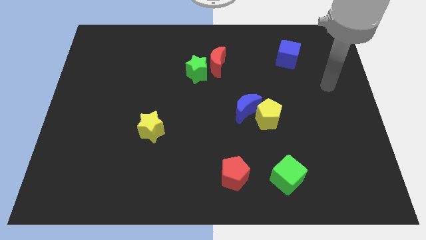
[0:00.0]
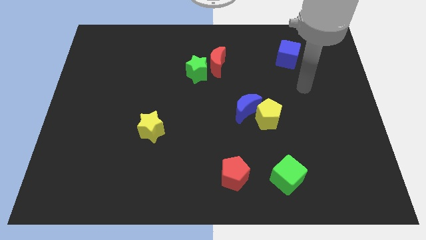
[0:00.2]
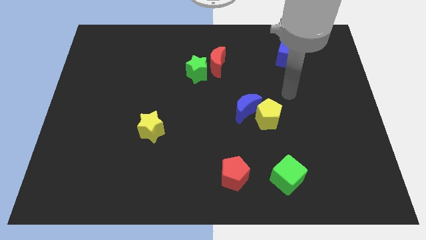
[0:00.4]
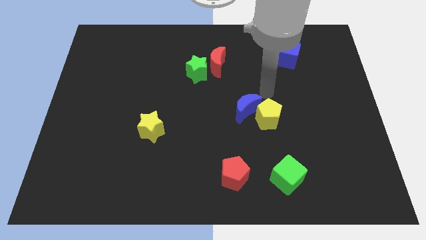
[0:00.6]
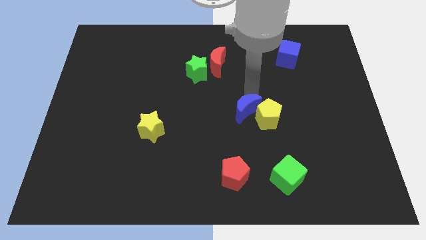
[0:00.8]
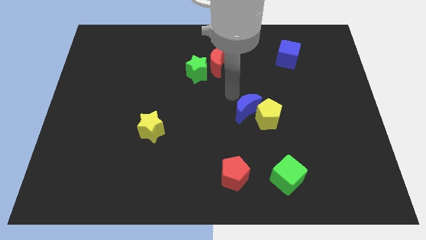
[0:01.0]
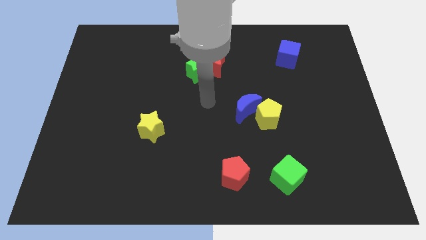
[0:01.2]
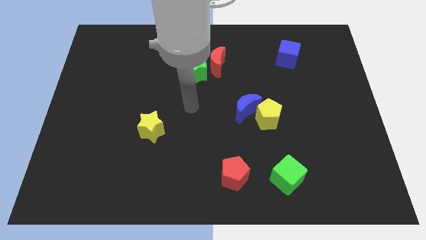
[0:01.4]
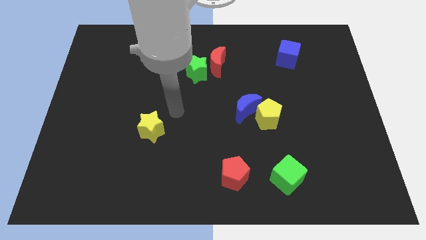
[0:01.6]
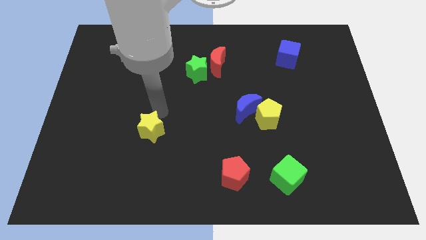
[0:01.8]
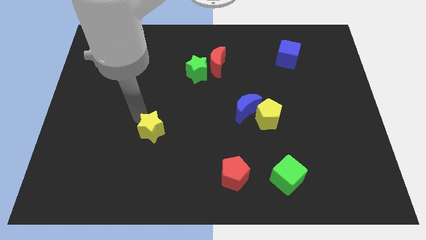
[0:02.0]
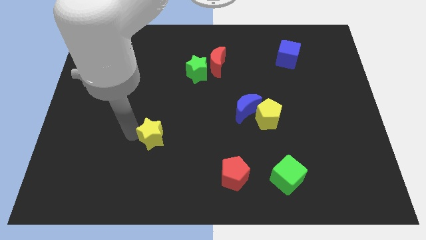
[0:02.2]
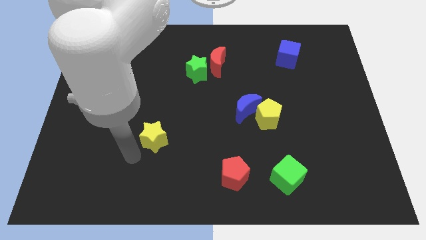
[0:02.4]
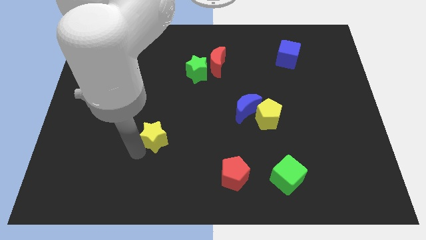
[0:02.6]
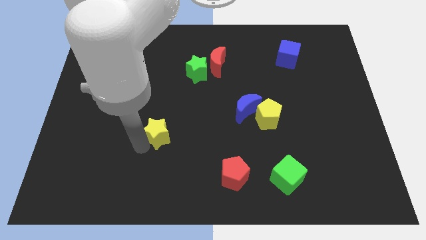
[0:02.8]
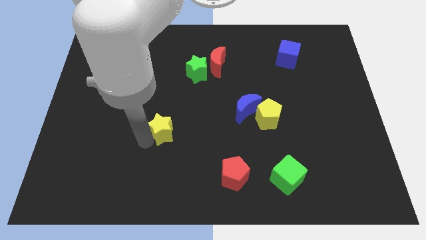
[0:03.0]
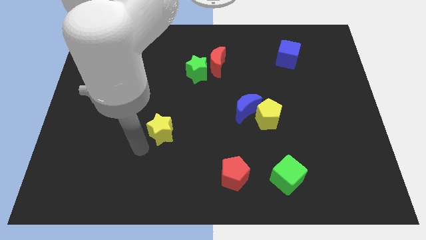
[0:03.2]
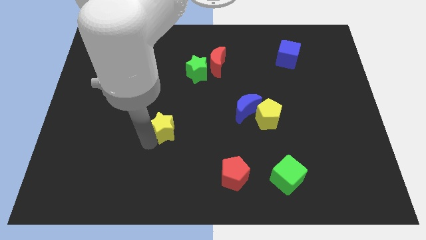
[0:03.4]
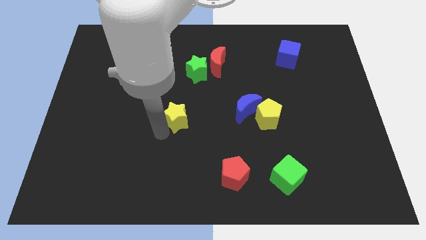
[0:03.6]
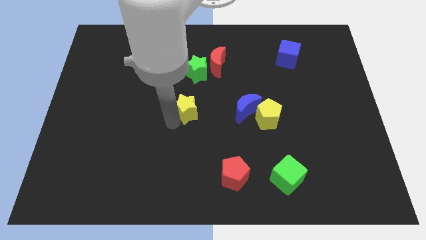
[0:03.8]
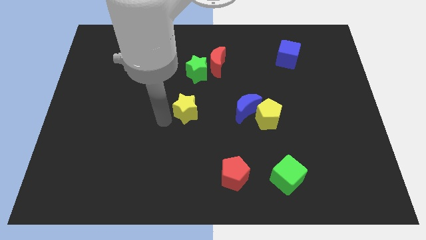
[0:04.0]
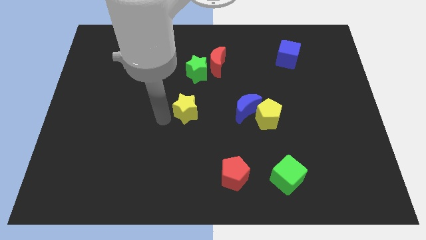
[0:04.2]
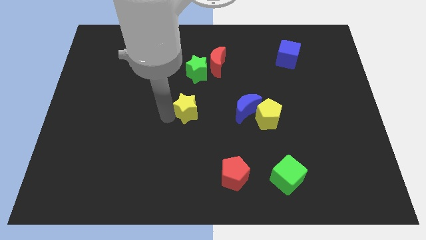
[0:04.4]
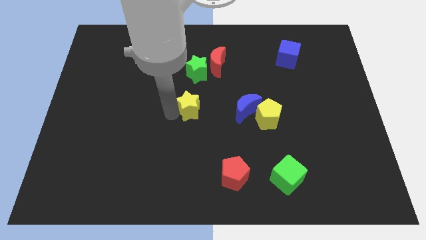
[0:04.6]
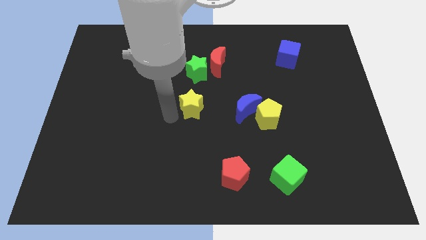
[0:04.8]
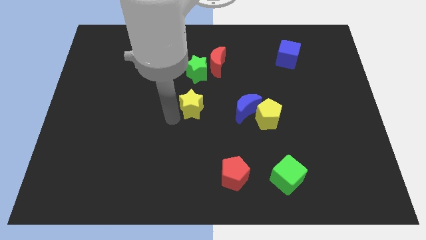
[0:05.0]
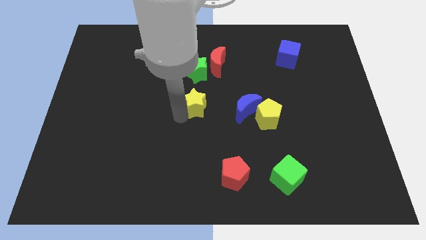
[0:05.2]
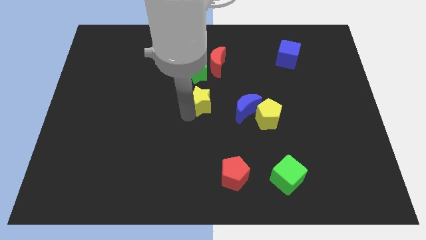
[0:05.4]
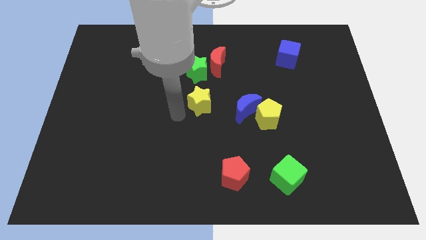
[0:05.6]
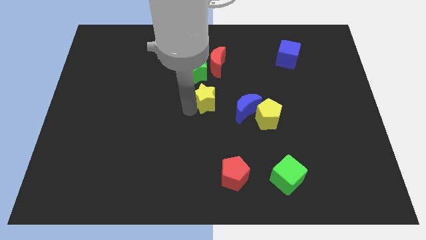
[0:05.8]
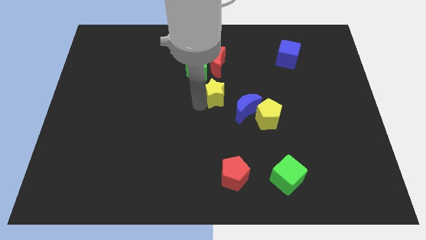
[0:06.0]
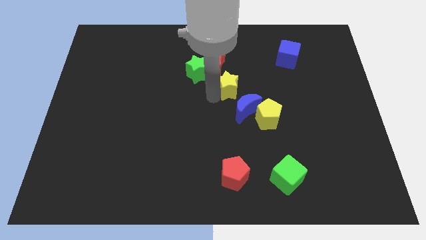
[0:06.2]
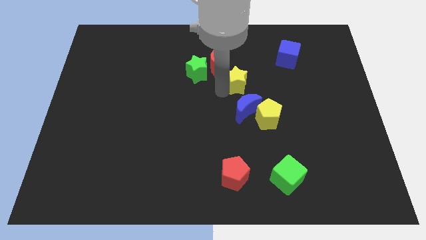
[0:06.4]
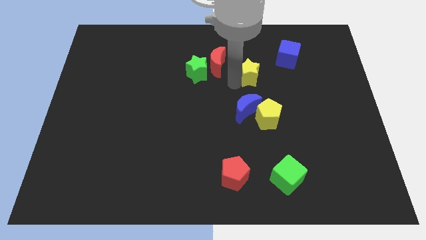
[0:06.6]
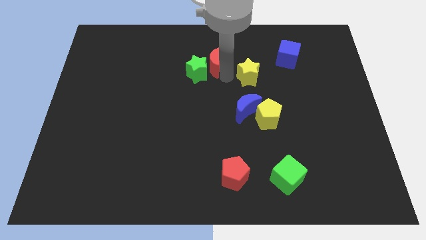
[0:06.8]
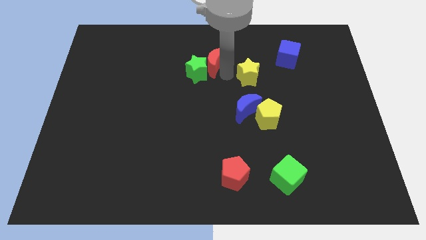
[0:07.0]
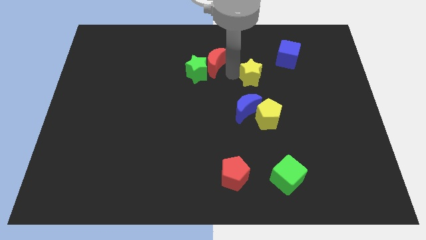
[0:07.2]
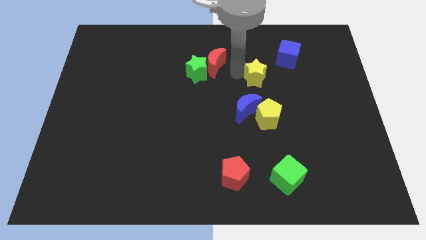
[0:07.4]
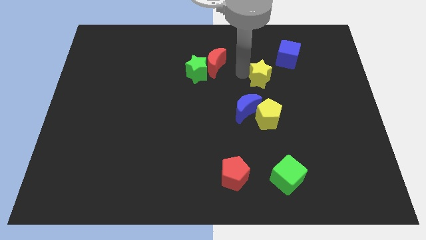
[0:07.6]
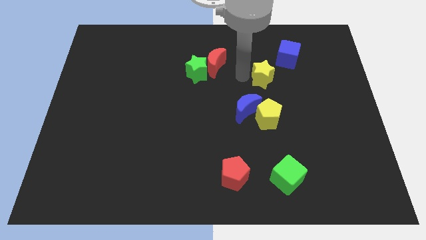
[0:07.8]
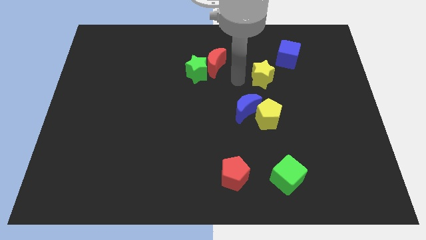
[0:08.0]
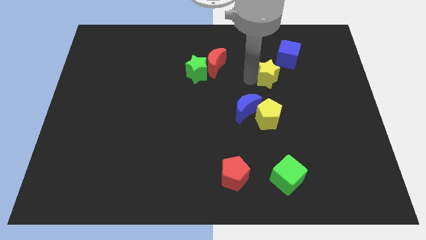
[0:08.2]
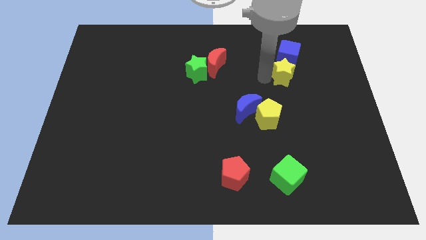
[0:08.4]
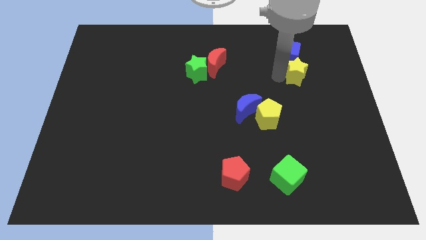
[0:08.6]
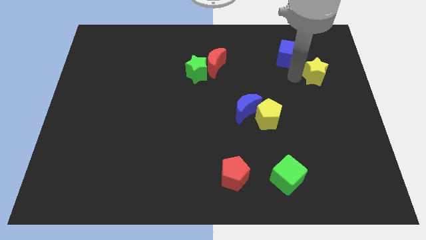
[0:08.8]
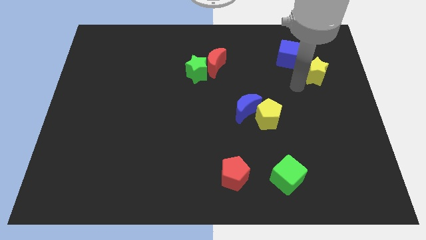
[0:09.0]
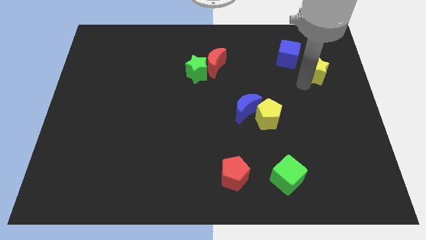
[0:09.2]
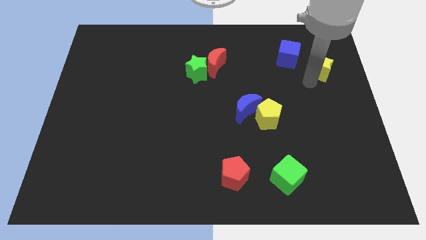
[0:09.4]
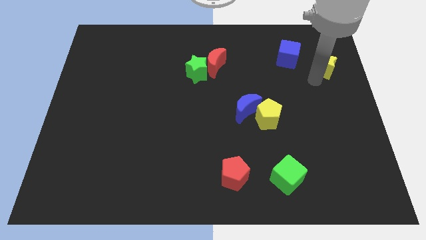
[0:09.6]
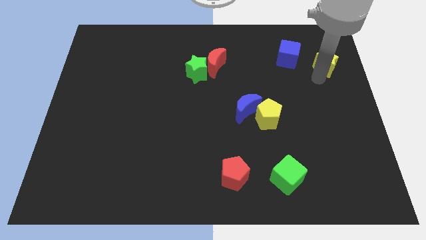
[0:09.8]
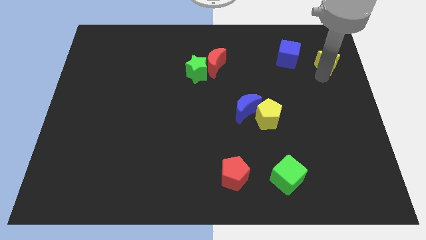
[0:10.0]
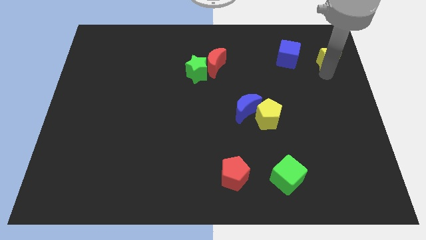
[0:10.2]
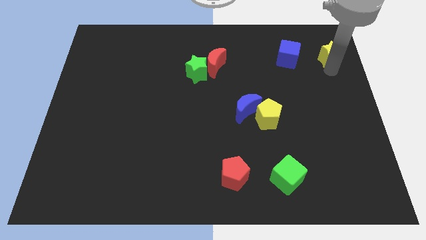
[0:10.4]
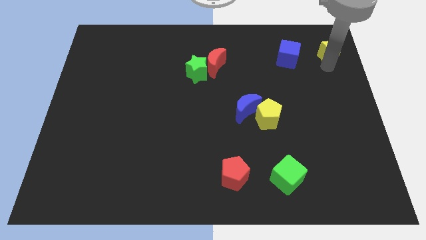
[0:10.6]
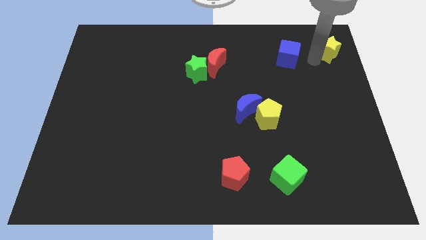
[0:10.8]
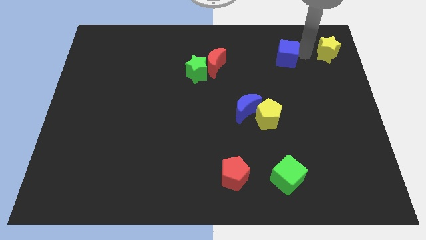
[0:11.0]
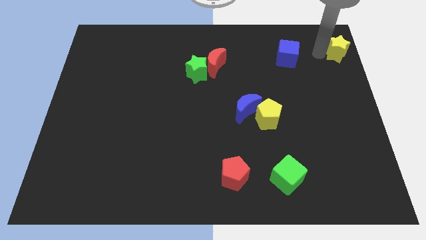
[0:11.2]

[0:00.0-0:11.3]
push the yellow star to the top right corner
